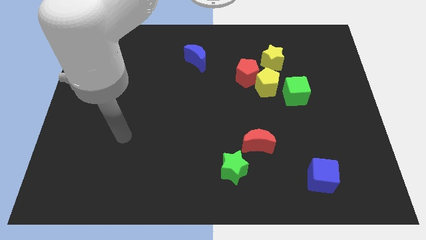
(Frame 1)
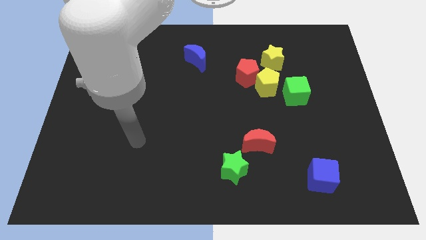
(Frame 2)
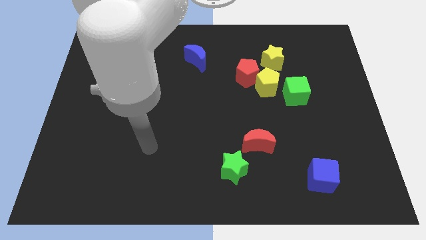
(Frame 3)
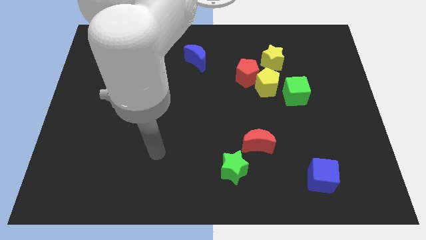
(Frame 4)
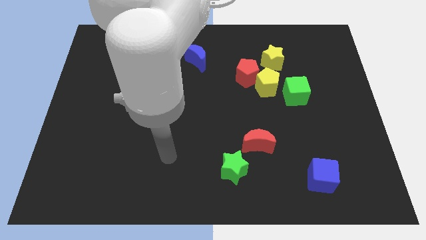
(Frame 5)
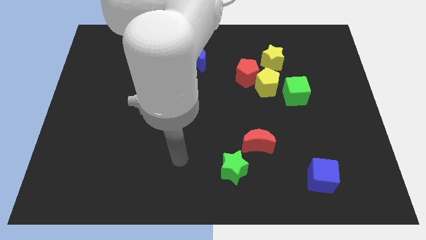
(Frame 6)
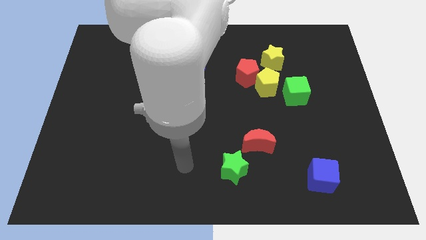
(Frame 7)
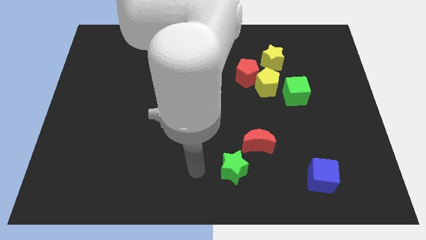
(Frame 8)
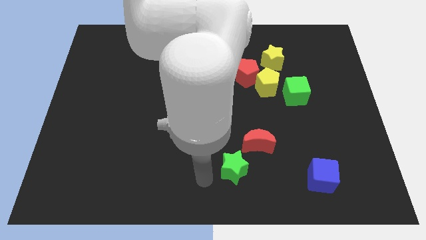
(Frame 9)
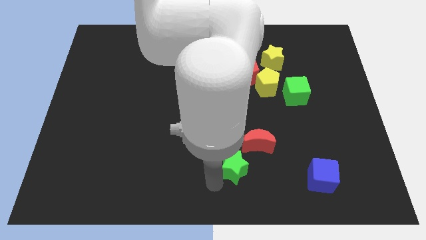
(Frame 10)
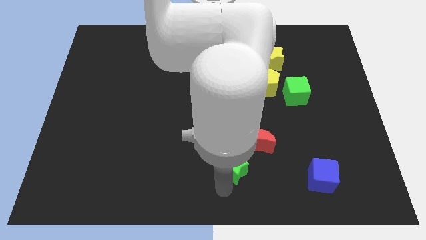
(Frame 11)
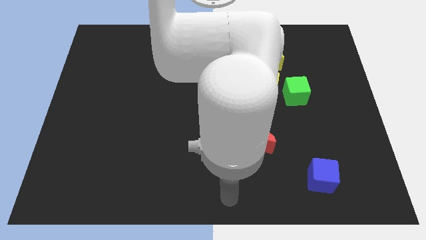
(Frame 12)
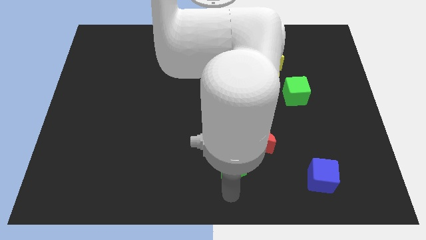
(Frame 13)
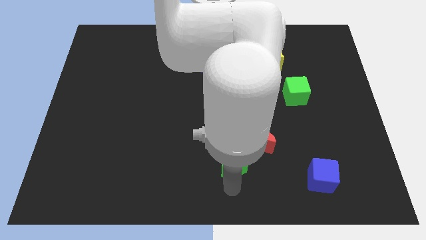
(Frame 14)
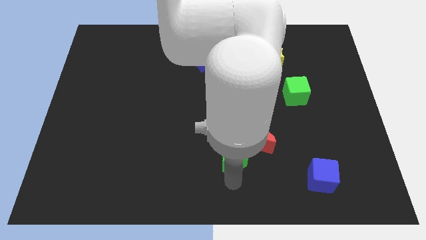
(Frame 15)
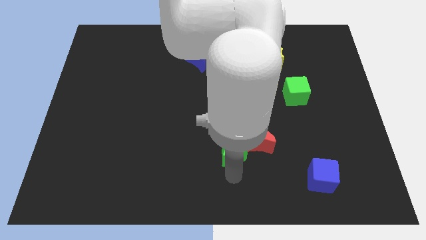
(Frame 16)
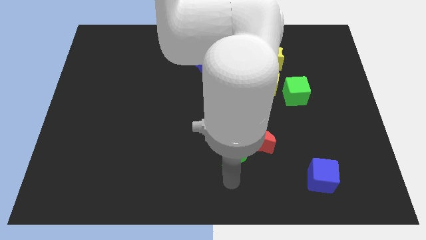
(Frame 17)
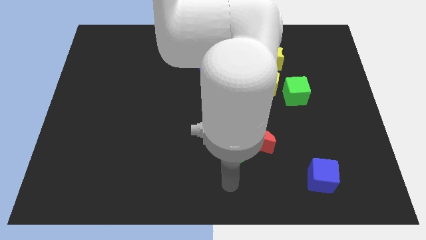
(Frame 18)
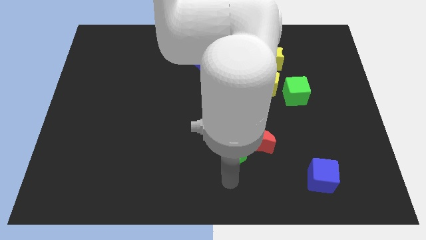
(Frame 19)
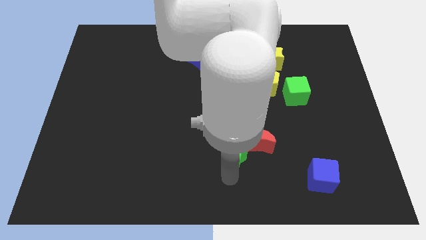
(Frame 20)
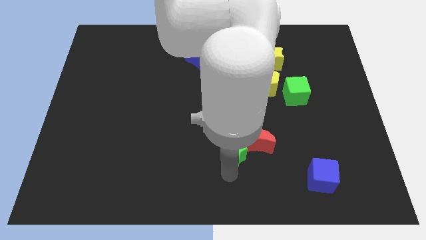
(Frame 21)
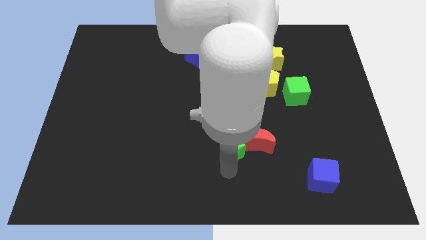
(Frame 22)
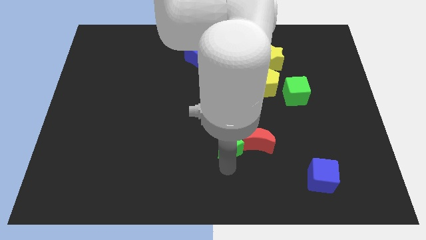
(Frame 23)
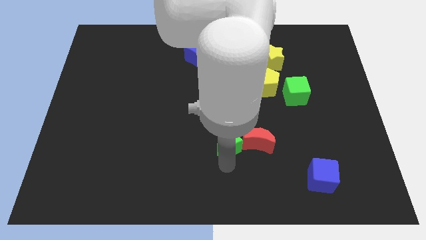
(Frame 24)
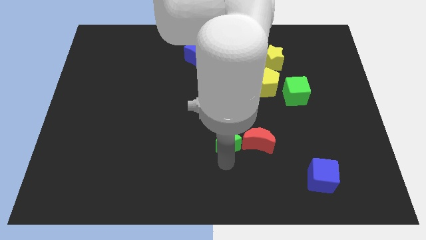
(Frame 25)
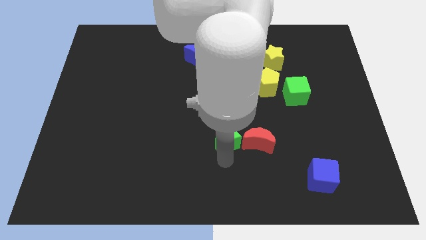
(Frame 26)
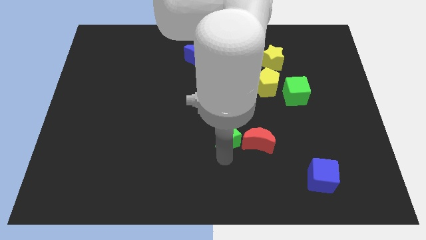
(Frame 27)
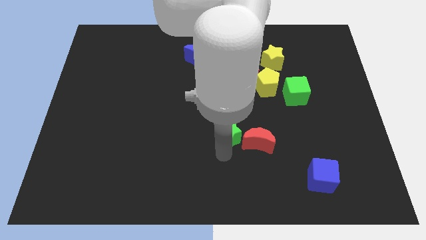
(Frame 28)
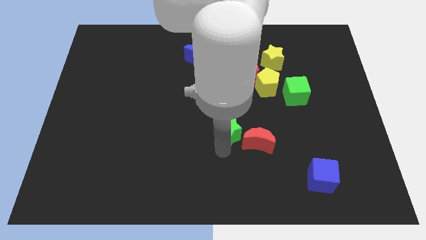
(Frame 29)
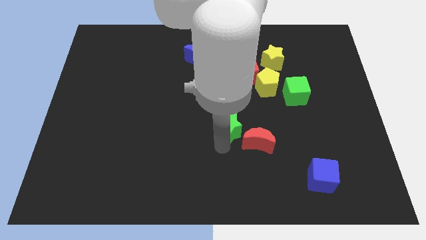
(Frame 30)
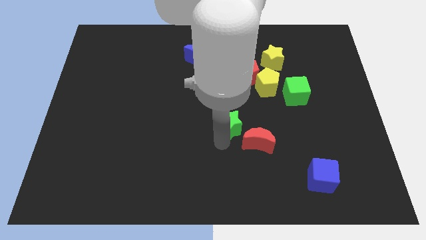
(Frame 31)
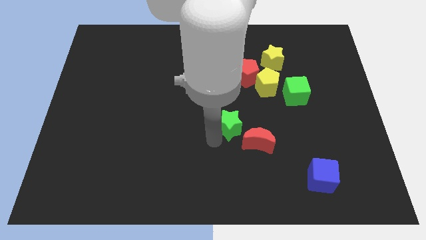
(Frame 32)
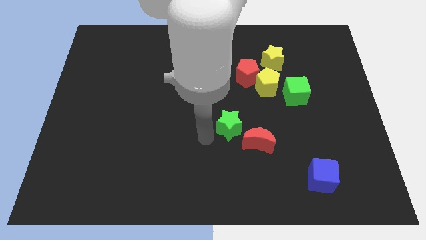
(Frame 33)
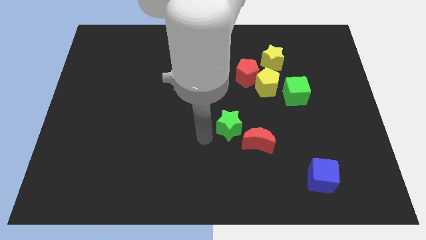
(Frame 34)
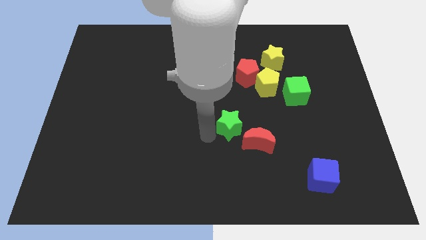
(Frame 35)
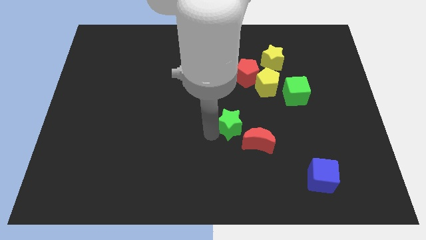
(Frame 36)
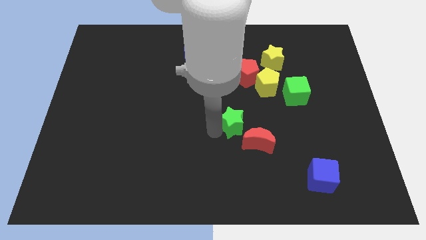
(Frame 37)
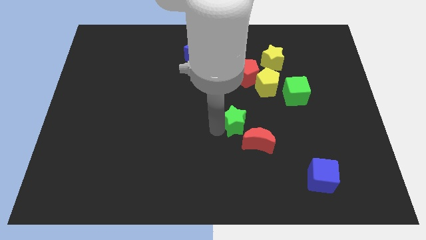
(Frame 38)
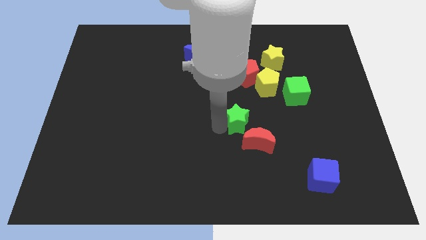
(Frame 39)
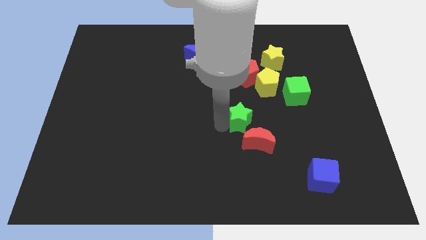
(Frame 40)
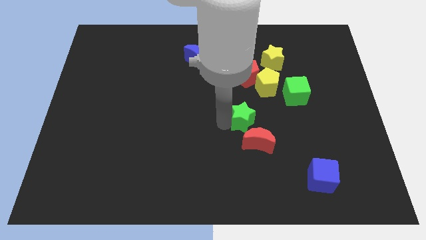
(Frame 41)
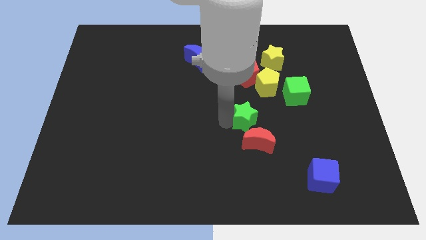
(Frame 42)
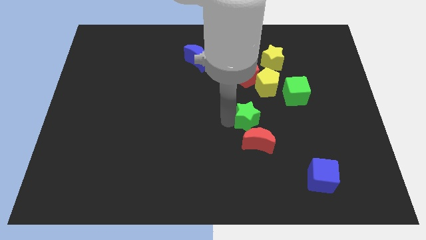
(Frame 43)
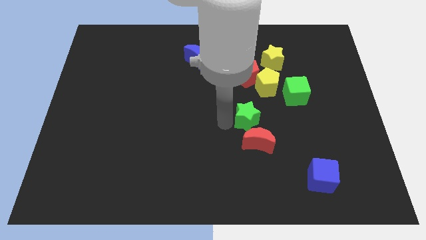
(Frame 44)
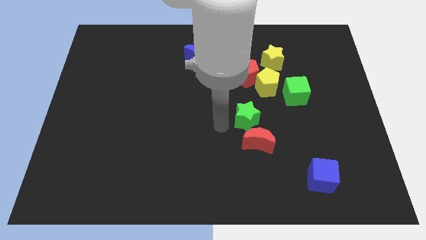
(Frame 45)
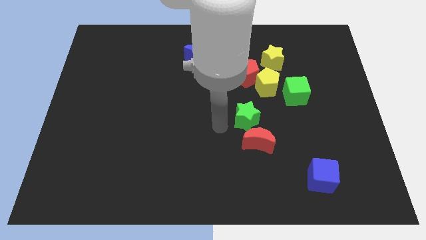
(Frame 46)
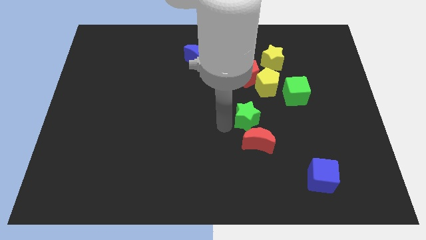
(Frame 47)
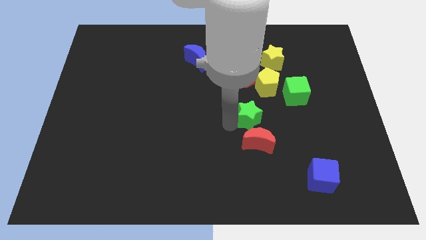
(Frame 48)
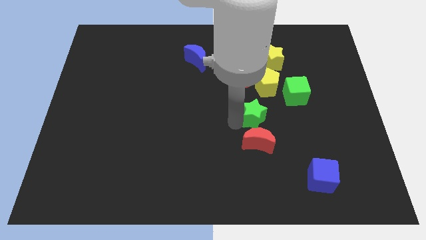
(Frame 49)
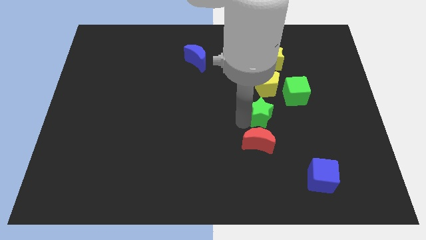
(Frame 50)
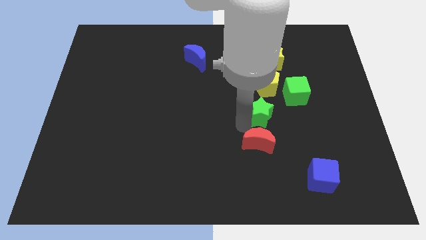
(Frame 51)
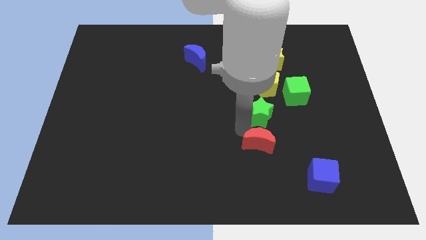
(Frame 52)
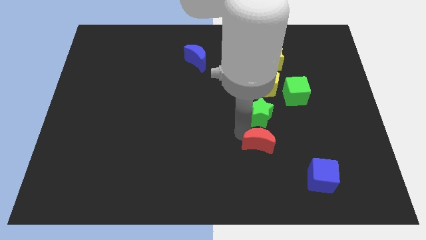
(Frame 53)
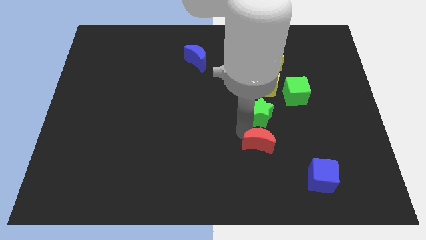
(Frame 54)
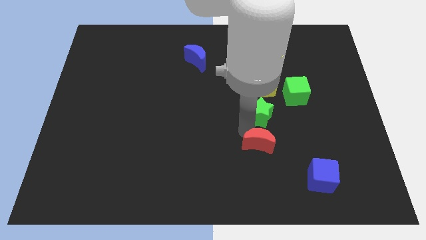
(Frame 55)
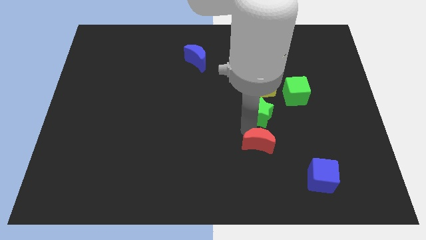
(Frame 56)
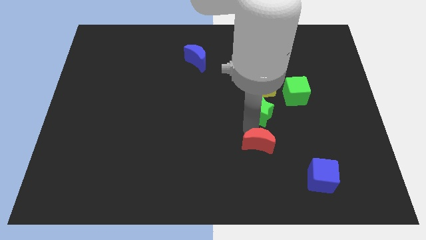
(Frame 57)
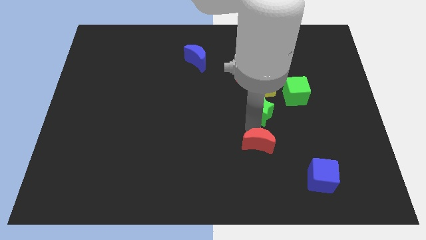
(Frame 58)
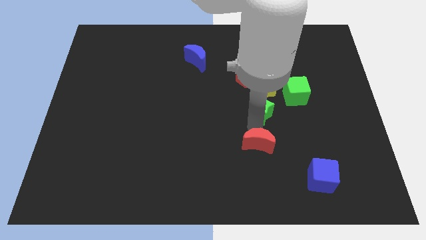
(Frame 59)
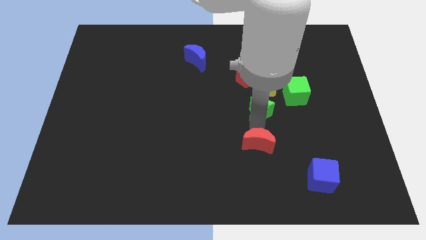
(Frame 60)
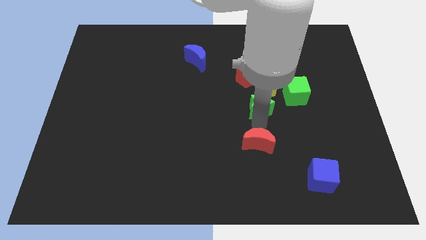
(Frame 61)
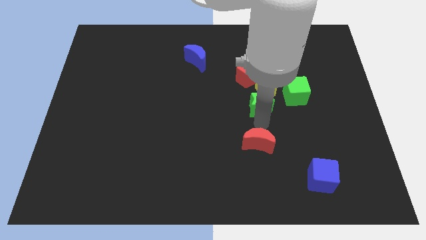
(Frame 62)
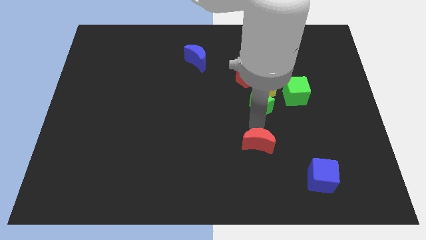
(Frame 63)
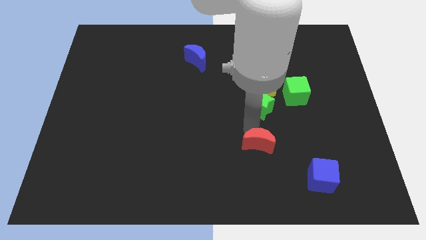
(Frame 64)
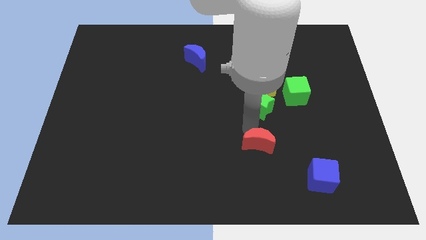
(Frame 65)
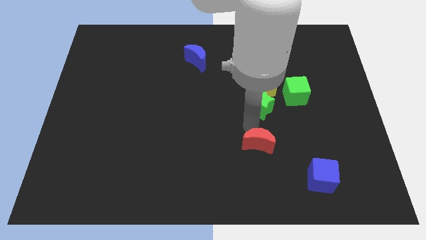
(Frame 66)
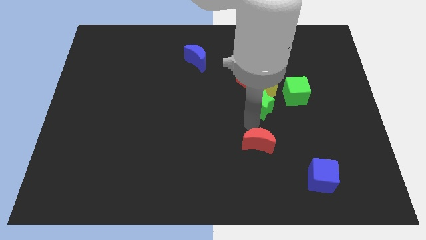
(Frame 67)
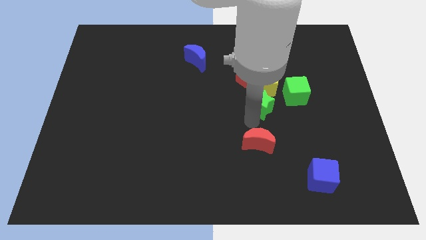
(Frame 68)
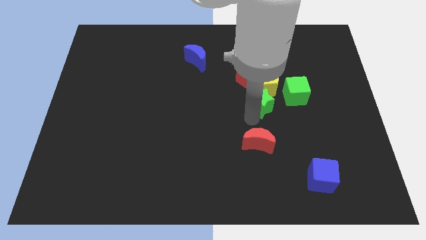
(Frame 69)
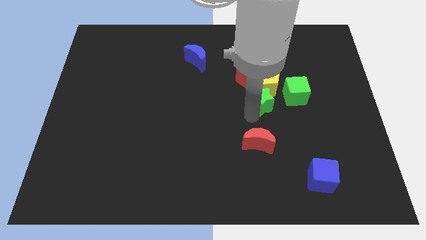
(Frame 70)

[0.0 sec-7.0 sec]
move the green star diagonally down and to the right of the red pentagon

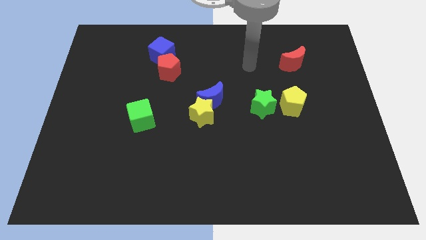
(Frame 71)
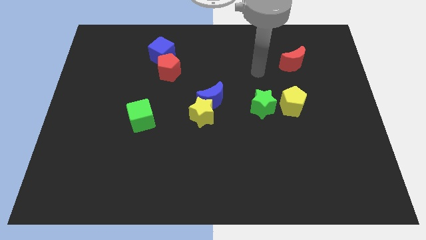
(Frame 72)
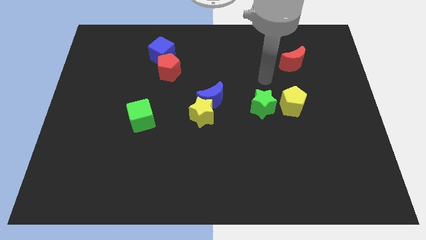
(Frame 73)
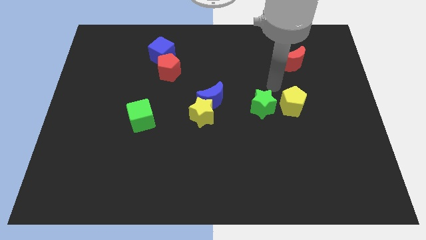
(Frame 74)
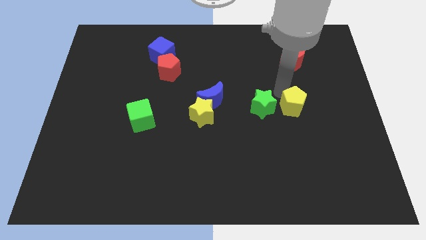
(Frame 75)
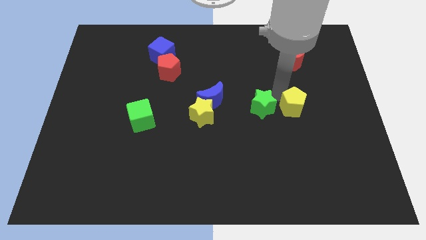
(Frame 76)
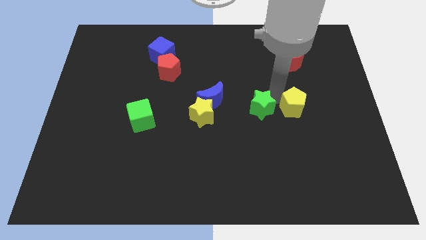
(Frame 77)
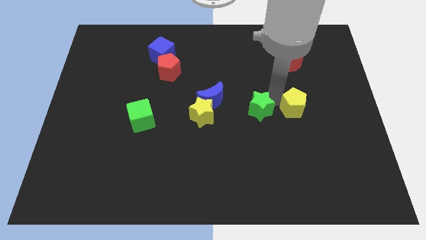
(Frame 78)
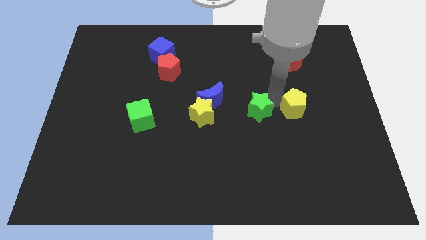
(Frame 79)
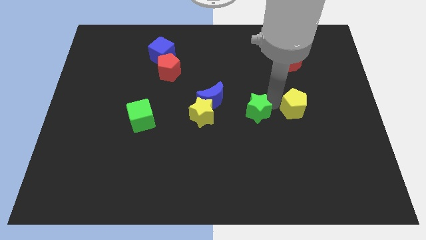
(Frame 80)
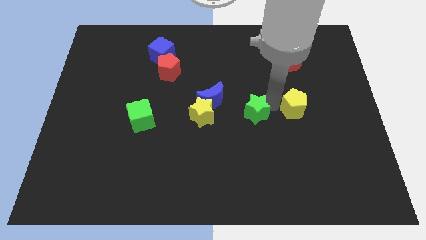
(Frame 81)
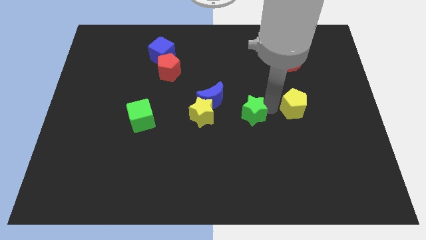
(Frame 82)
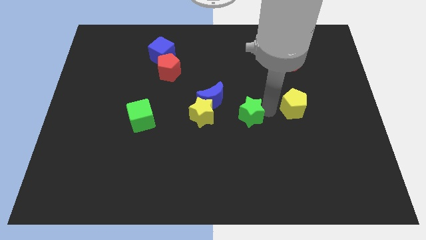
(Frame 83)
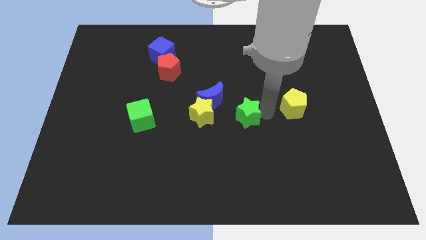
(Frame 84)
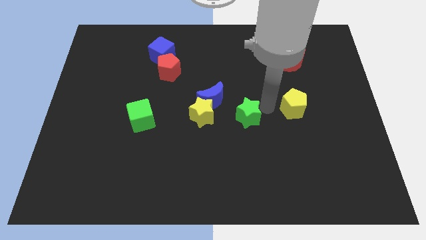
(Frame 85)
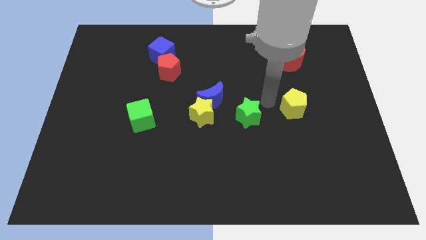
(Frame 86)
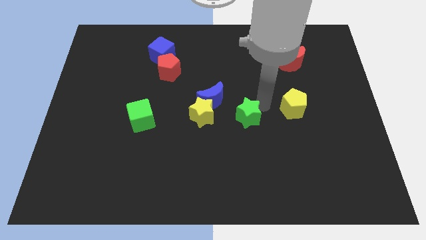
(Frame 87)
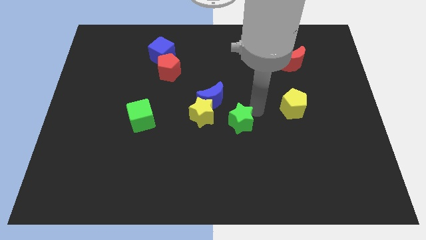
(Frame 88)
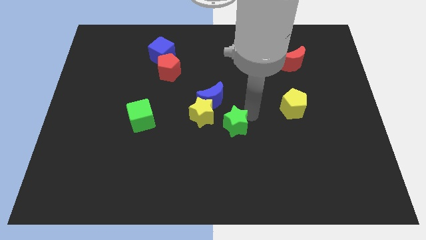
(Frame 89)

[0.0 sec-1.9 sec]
push the green star to the bottom right side of the yellow star
